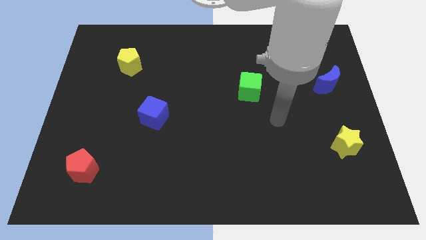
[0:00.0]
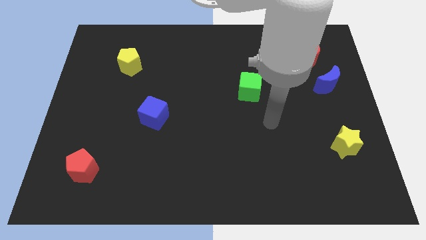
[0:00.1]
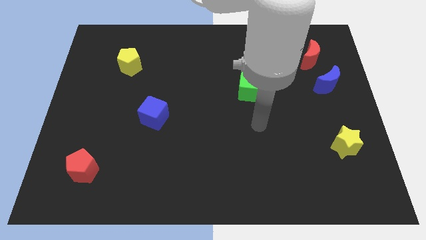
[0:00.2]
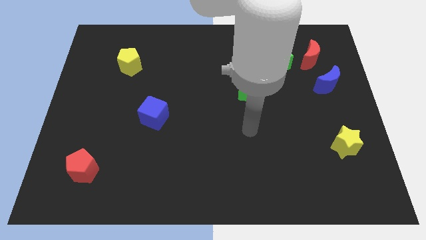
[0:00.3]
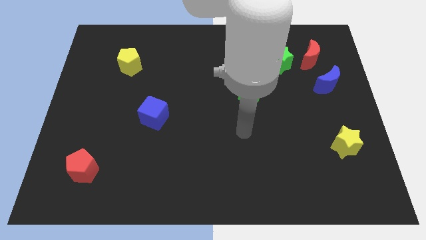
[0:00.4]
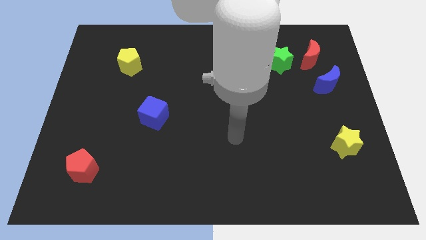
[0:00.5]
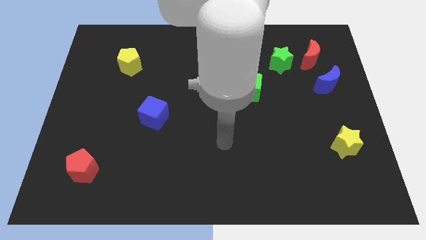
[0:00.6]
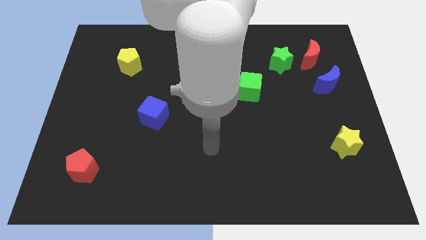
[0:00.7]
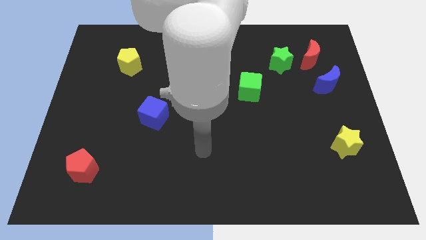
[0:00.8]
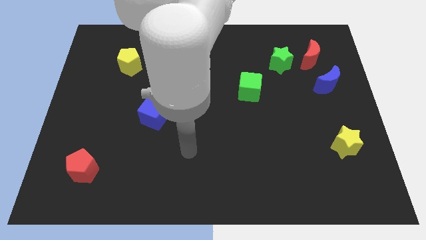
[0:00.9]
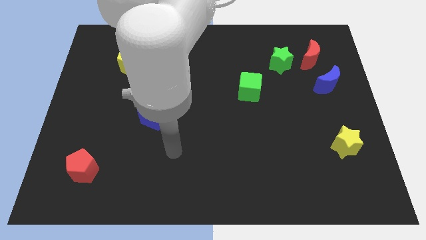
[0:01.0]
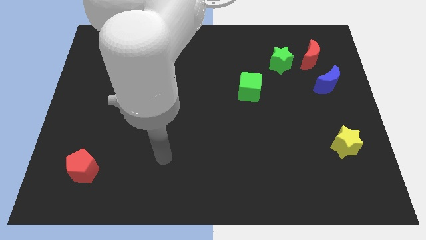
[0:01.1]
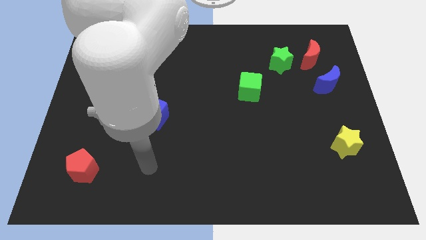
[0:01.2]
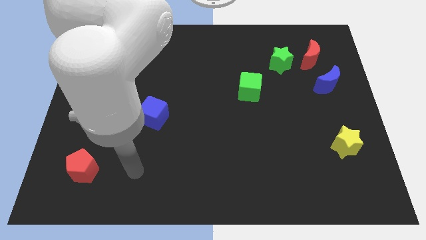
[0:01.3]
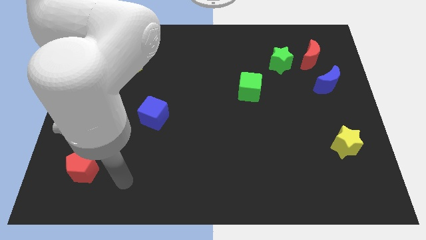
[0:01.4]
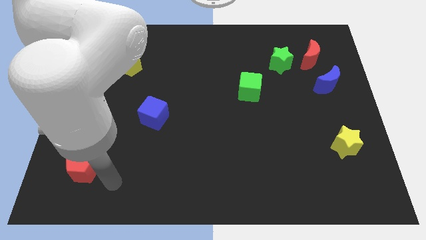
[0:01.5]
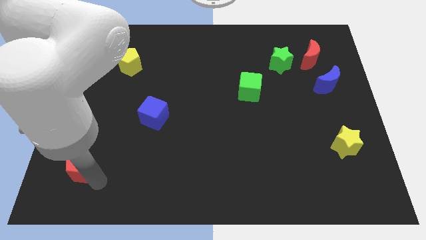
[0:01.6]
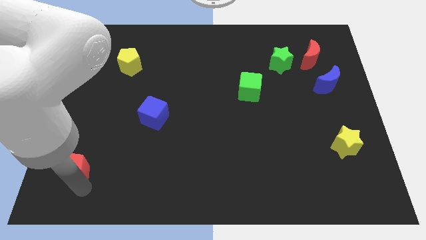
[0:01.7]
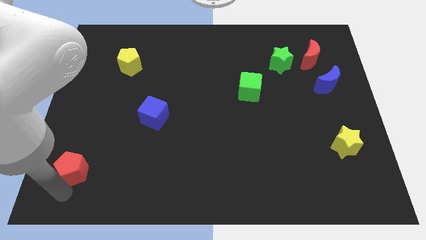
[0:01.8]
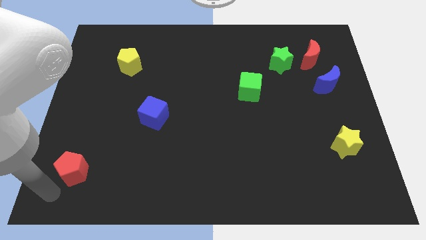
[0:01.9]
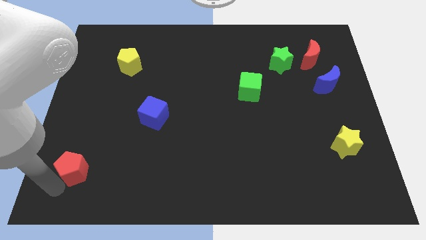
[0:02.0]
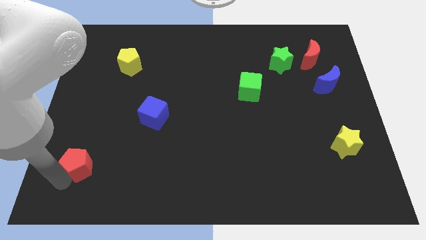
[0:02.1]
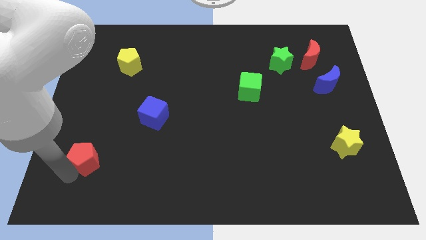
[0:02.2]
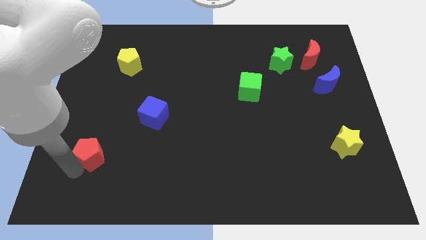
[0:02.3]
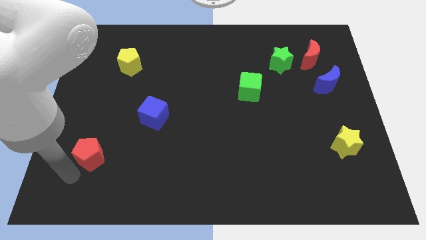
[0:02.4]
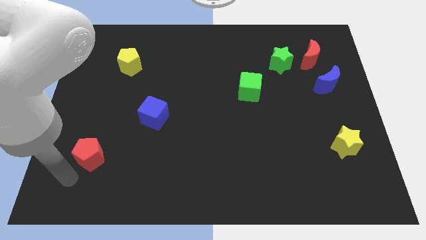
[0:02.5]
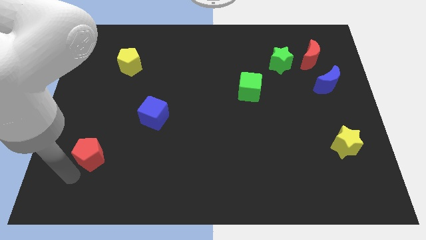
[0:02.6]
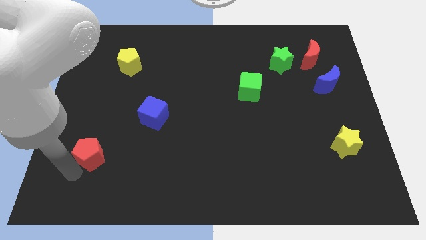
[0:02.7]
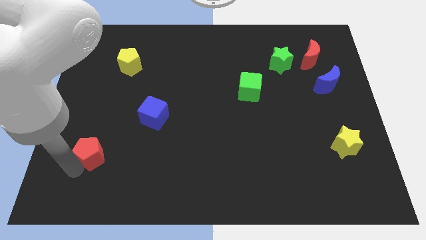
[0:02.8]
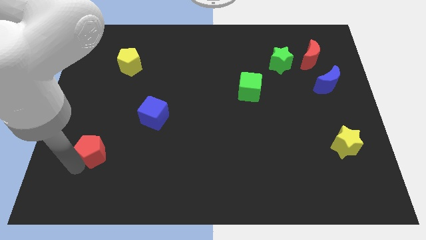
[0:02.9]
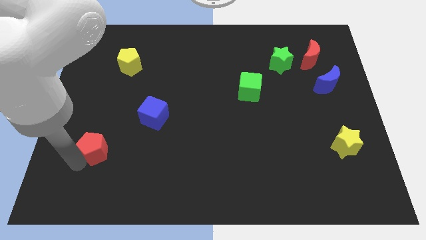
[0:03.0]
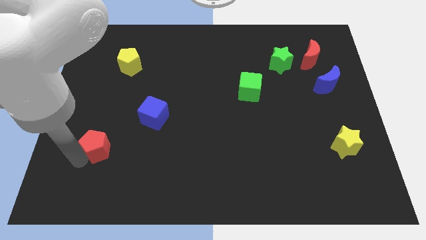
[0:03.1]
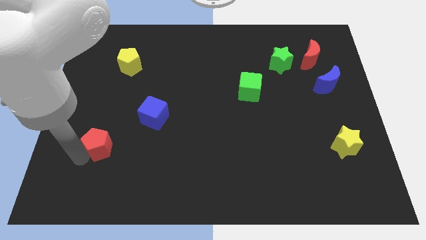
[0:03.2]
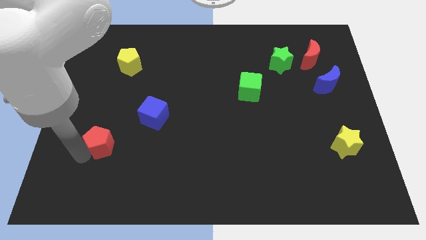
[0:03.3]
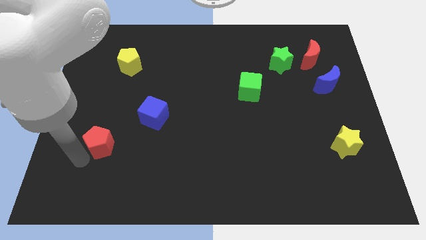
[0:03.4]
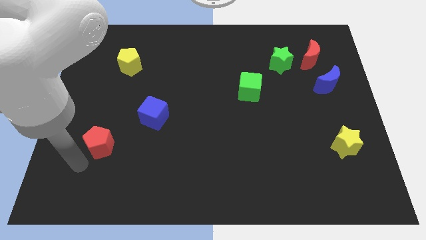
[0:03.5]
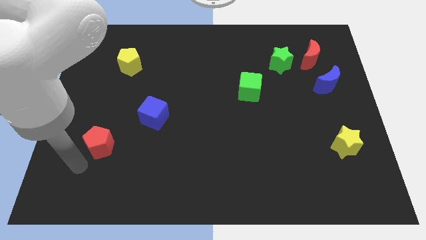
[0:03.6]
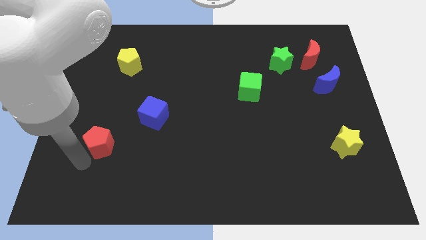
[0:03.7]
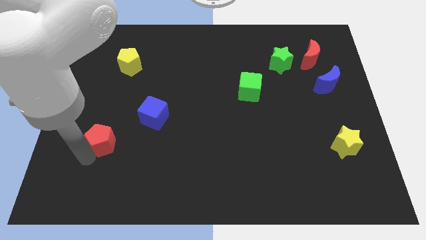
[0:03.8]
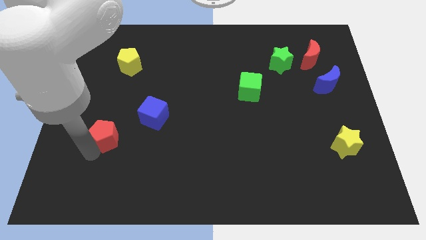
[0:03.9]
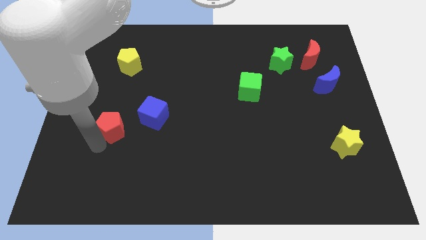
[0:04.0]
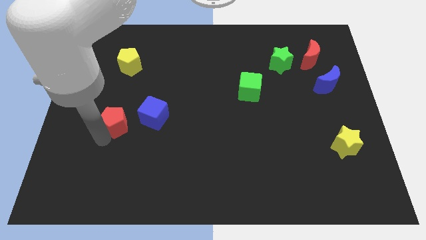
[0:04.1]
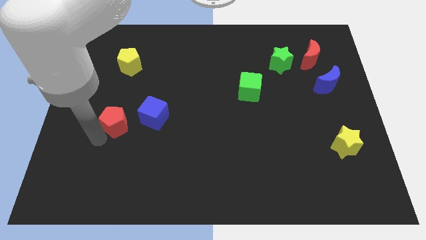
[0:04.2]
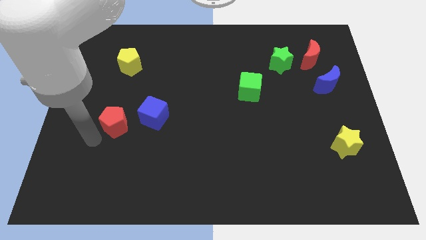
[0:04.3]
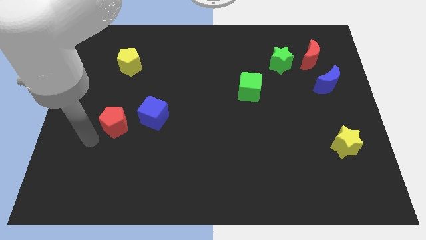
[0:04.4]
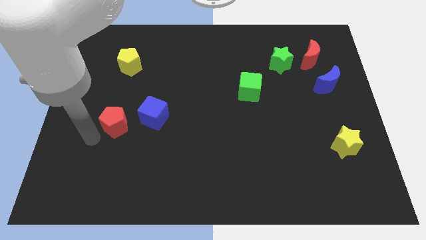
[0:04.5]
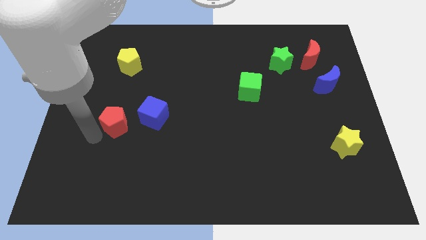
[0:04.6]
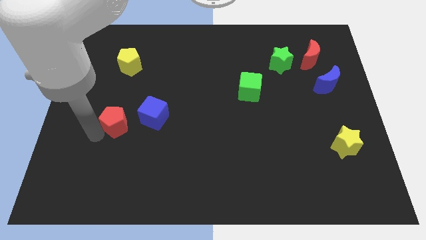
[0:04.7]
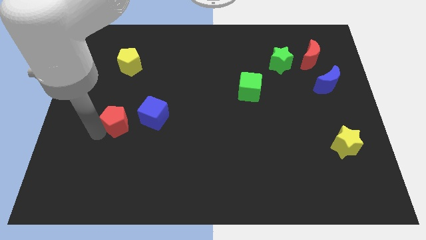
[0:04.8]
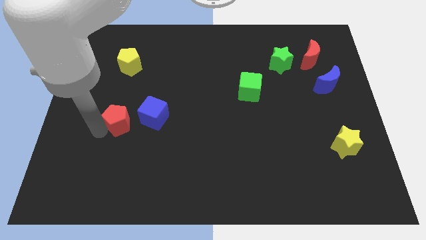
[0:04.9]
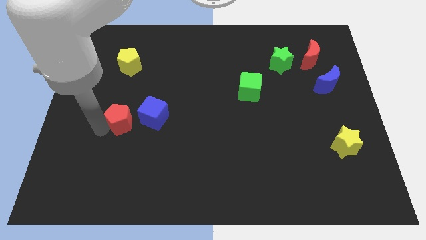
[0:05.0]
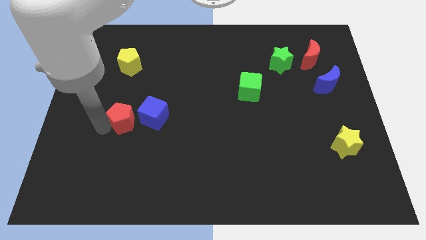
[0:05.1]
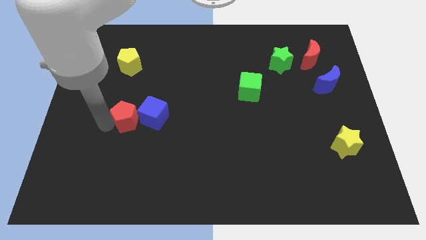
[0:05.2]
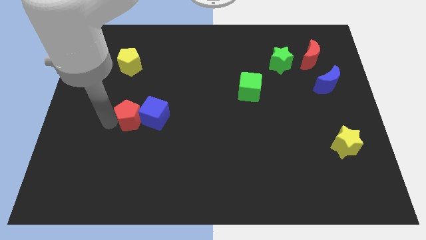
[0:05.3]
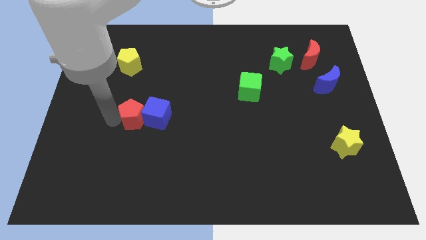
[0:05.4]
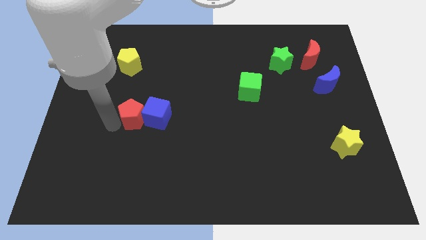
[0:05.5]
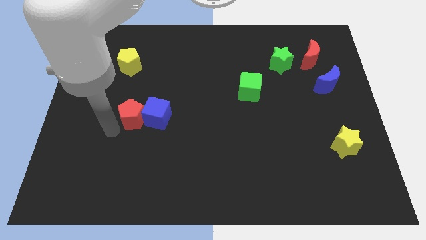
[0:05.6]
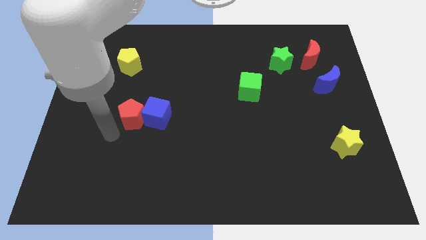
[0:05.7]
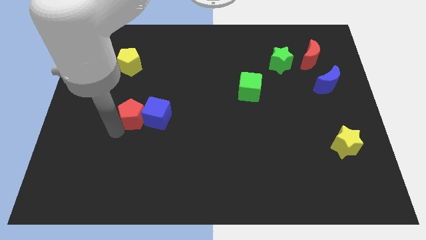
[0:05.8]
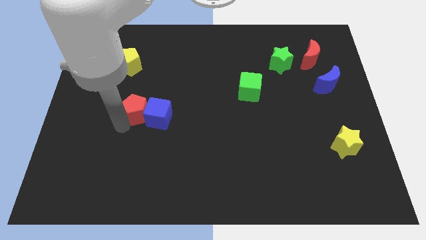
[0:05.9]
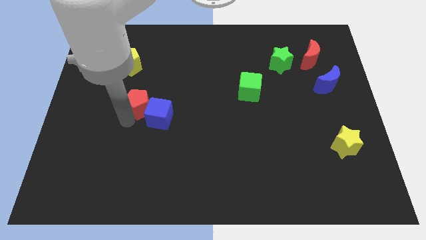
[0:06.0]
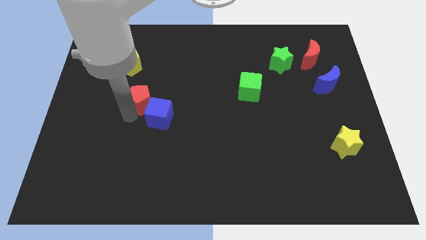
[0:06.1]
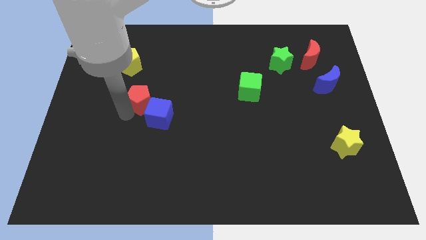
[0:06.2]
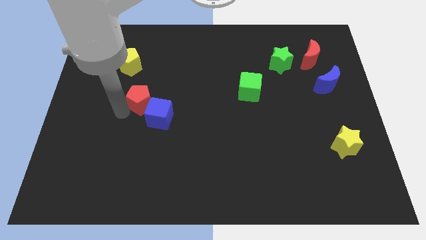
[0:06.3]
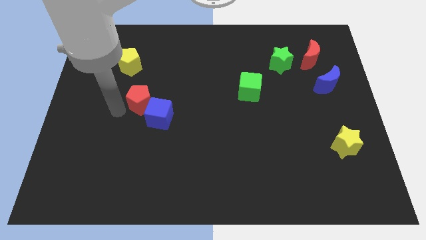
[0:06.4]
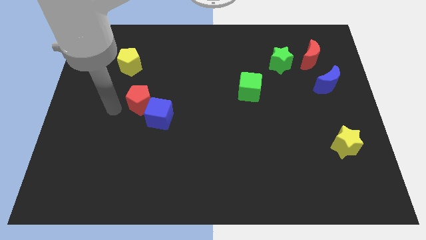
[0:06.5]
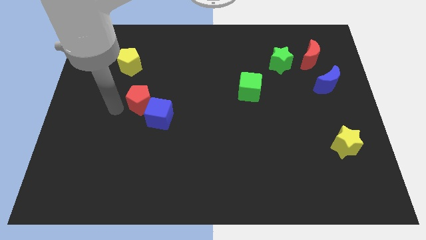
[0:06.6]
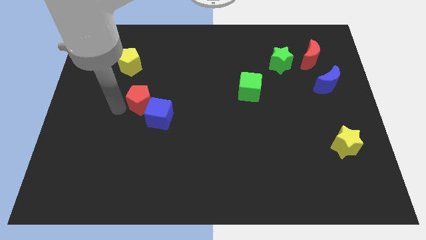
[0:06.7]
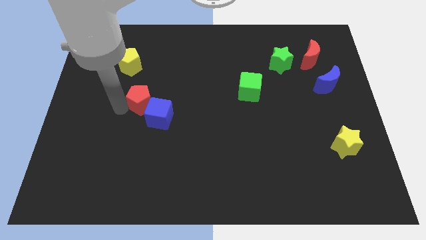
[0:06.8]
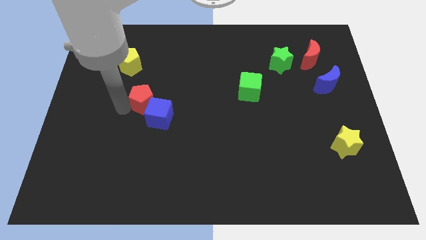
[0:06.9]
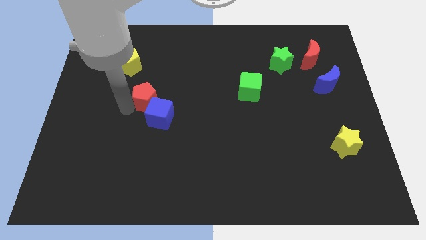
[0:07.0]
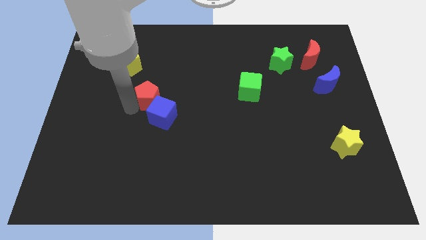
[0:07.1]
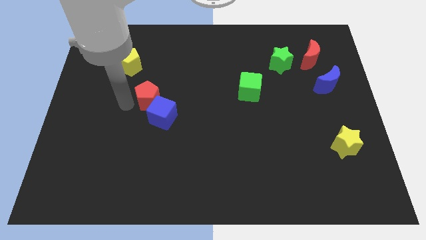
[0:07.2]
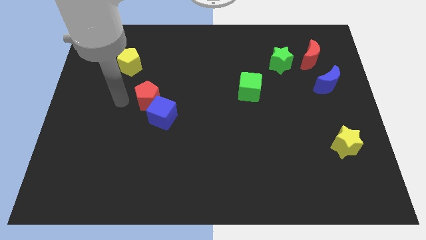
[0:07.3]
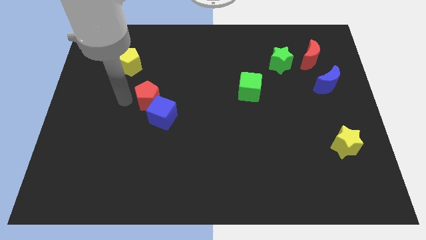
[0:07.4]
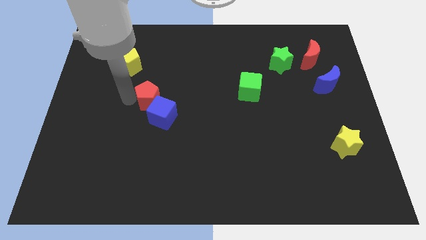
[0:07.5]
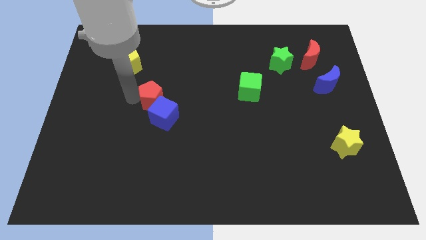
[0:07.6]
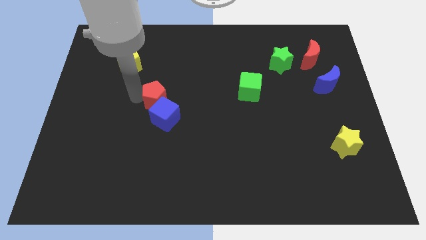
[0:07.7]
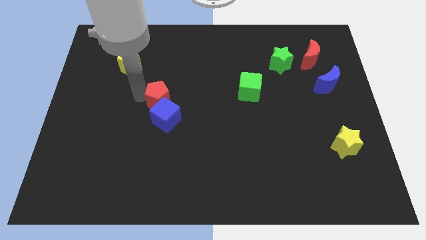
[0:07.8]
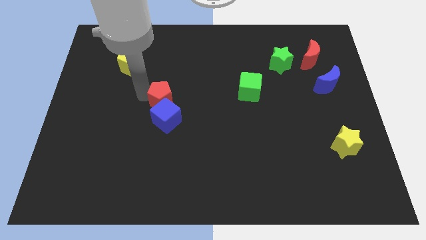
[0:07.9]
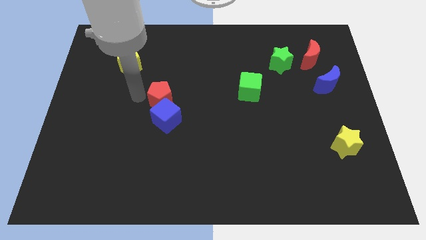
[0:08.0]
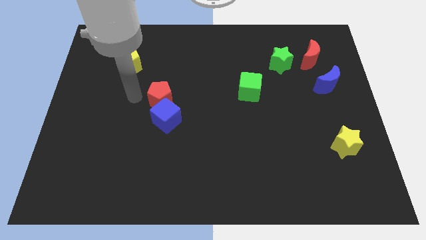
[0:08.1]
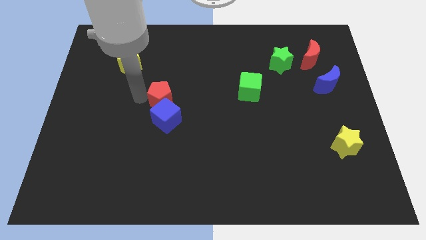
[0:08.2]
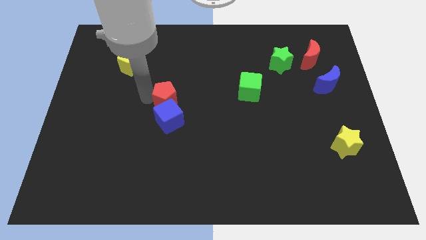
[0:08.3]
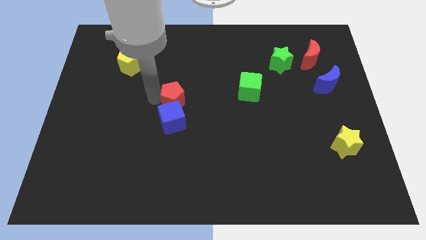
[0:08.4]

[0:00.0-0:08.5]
slide the red pentagon to the top right side of the blue cube
